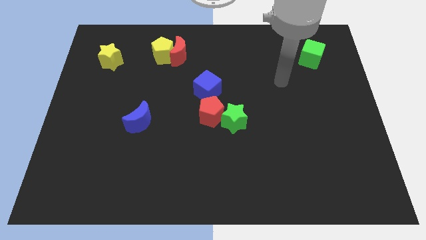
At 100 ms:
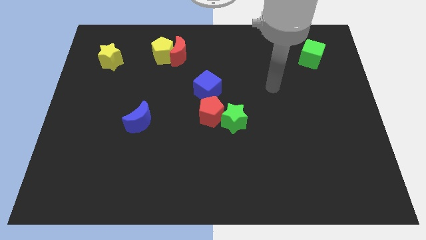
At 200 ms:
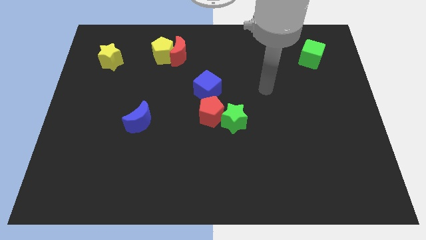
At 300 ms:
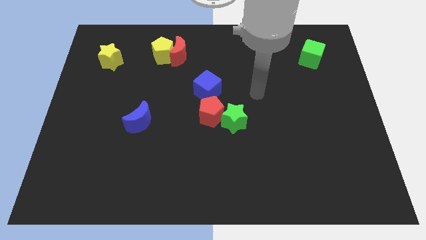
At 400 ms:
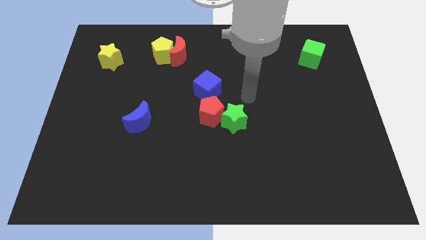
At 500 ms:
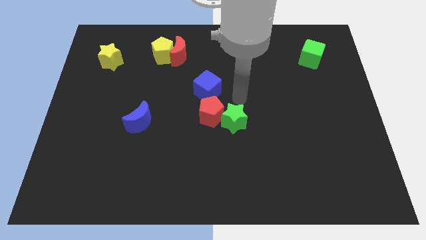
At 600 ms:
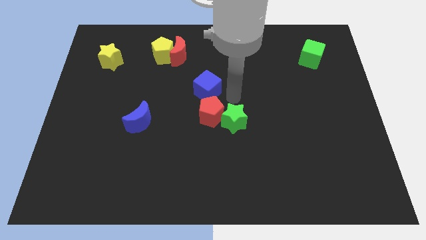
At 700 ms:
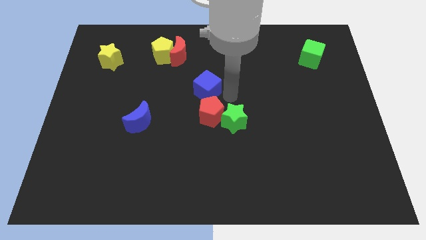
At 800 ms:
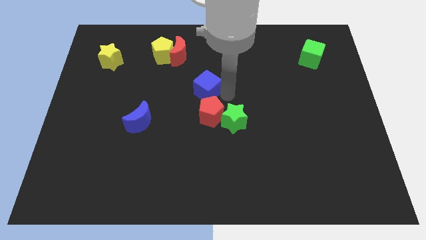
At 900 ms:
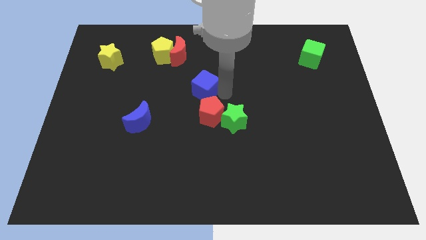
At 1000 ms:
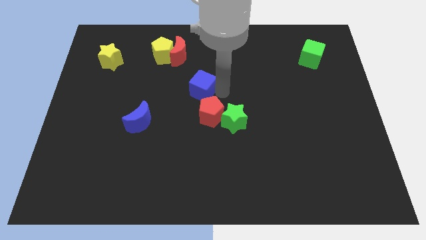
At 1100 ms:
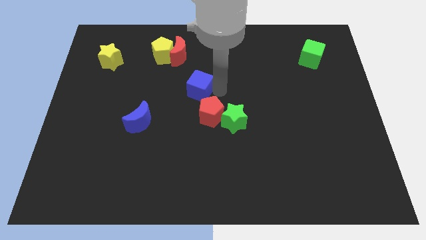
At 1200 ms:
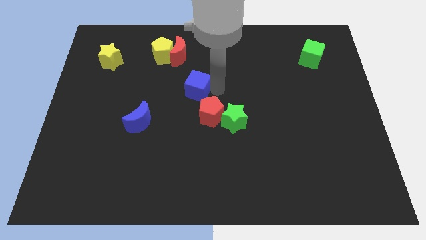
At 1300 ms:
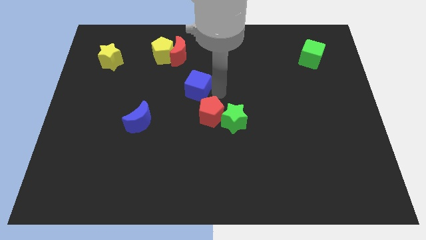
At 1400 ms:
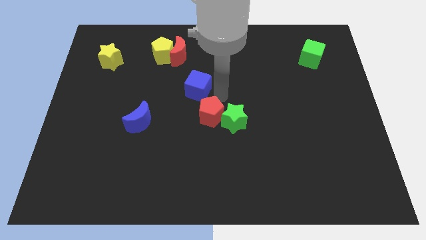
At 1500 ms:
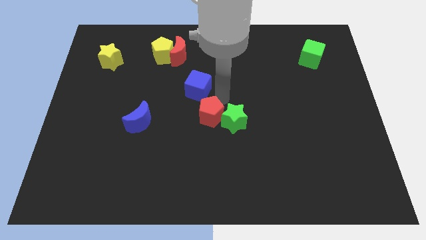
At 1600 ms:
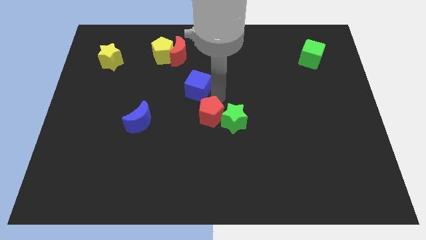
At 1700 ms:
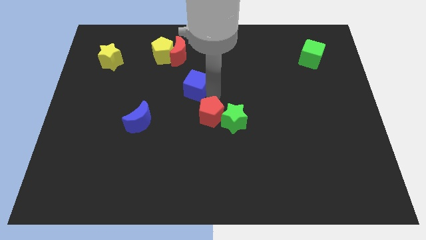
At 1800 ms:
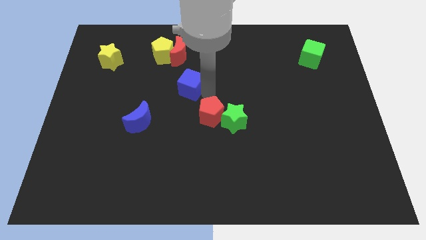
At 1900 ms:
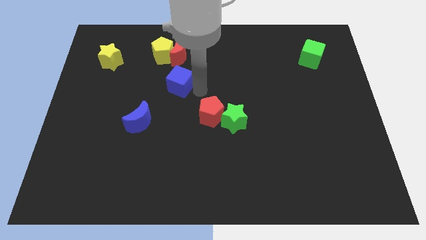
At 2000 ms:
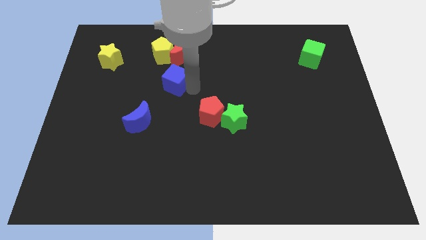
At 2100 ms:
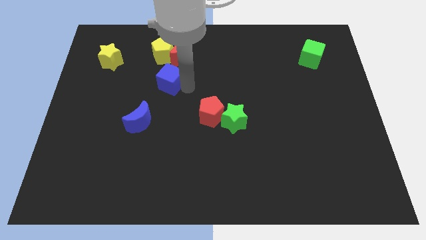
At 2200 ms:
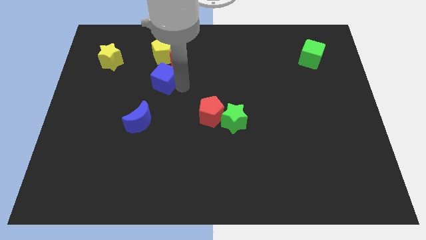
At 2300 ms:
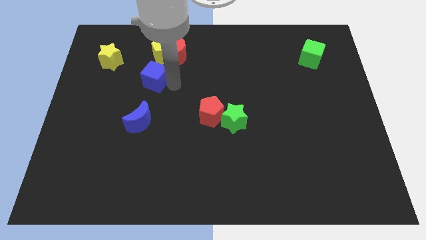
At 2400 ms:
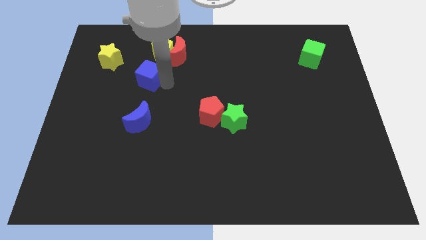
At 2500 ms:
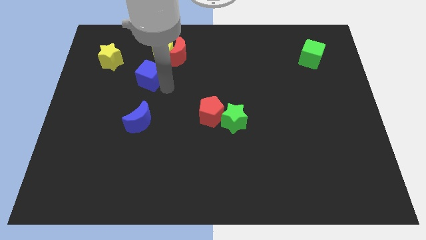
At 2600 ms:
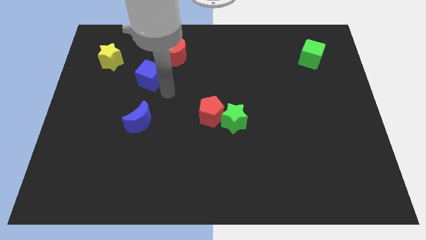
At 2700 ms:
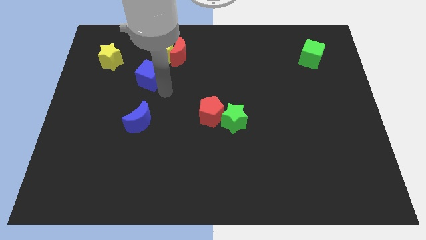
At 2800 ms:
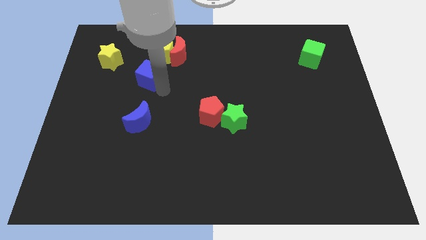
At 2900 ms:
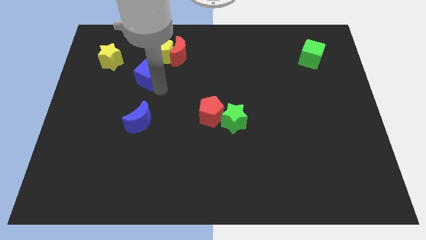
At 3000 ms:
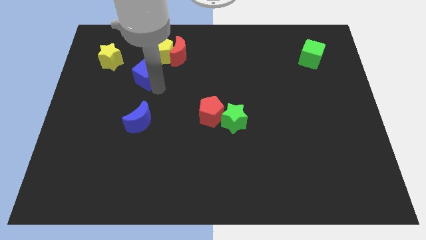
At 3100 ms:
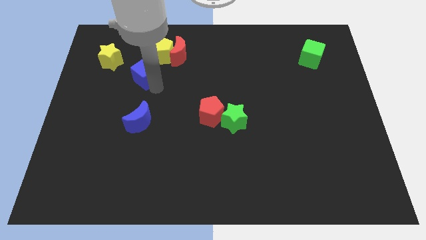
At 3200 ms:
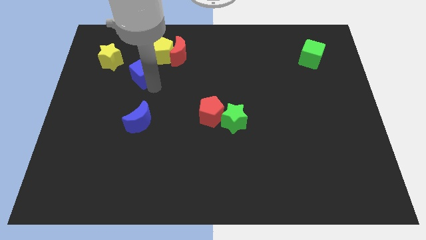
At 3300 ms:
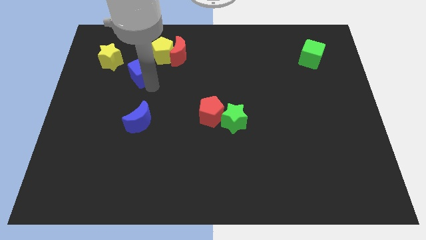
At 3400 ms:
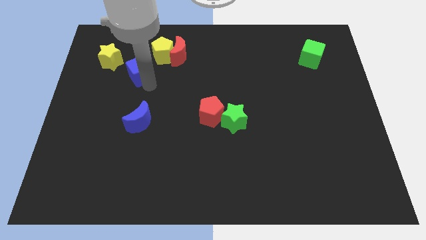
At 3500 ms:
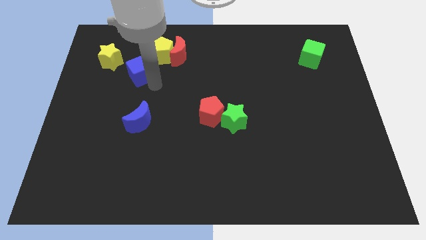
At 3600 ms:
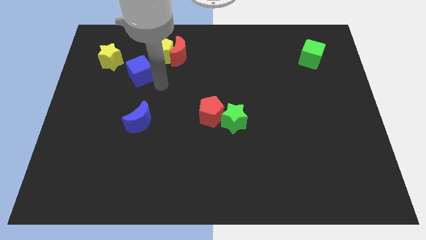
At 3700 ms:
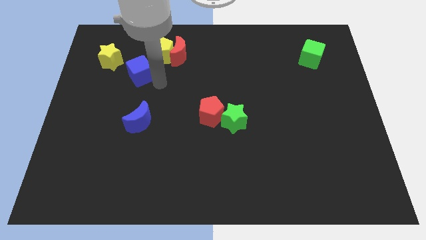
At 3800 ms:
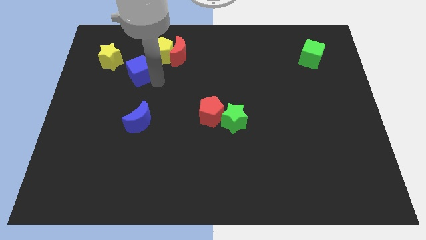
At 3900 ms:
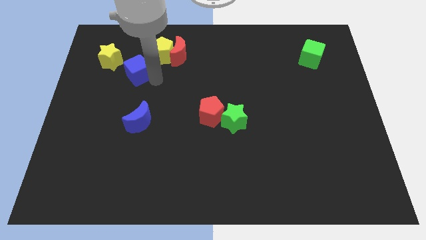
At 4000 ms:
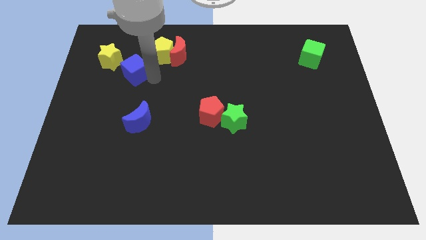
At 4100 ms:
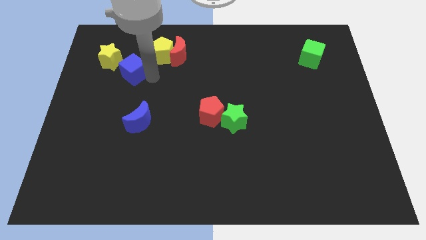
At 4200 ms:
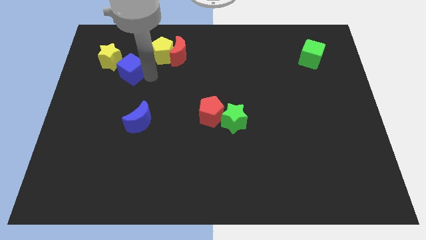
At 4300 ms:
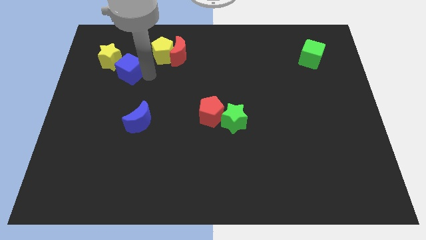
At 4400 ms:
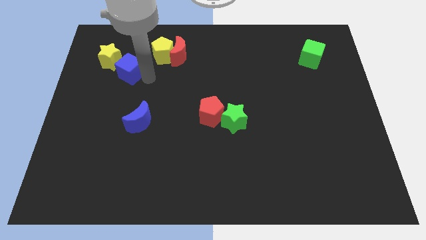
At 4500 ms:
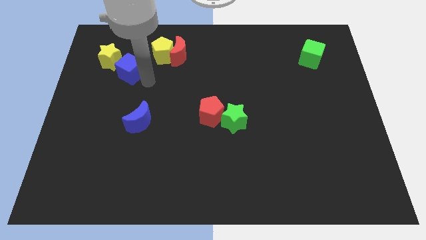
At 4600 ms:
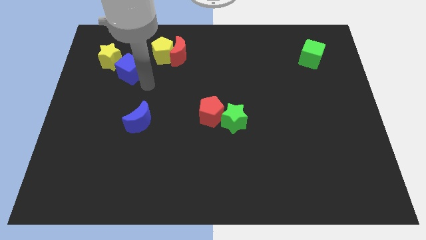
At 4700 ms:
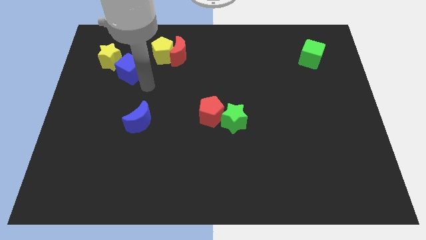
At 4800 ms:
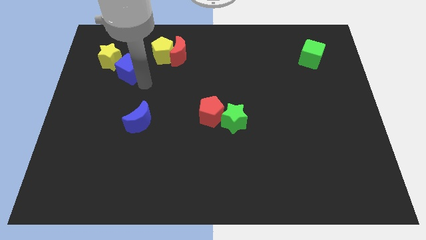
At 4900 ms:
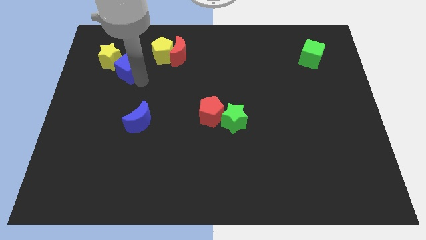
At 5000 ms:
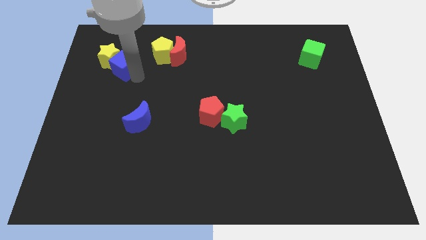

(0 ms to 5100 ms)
put the blue cube to the yellow star

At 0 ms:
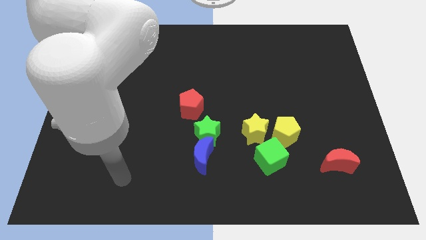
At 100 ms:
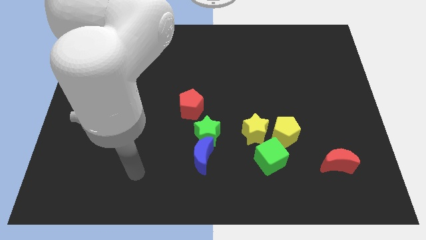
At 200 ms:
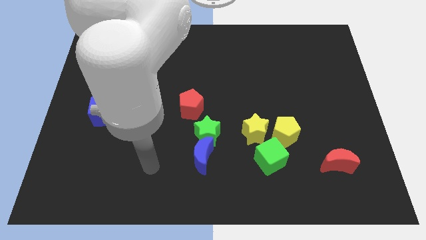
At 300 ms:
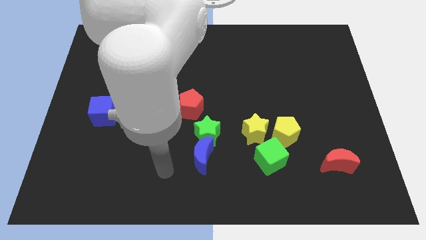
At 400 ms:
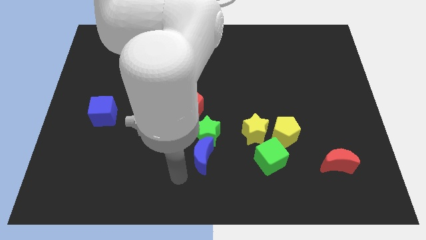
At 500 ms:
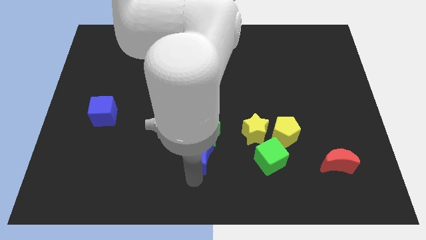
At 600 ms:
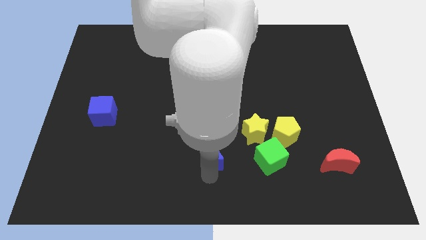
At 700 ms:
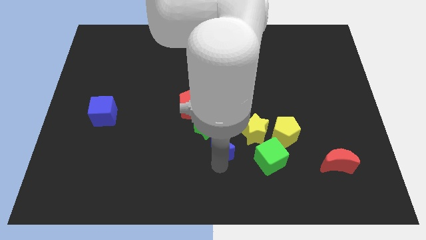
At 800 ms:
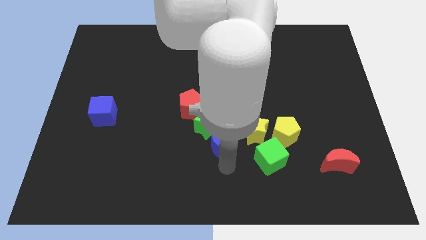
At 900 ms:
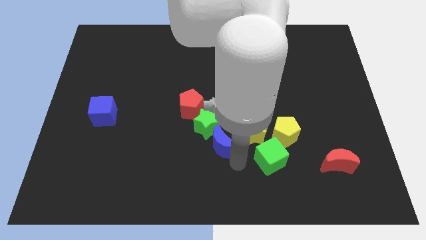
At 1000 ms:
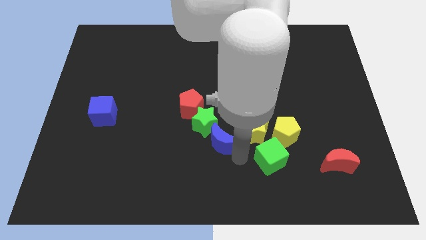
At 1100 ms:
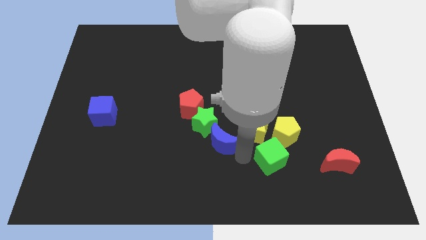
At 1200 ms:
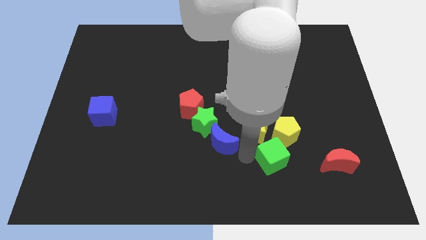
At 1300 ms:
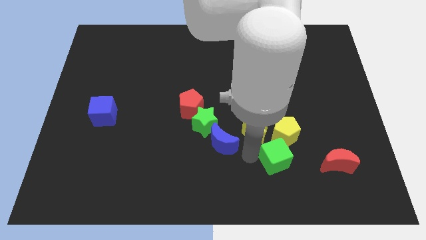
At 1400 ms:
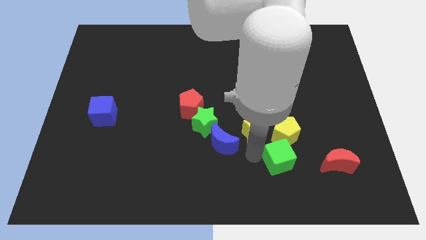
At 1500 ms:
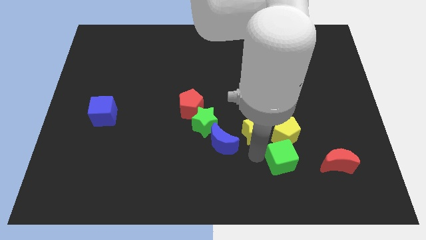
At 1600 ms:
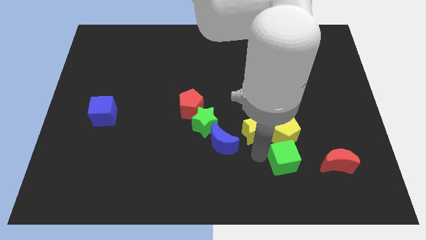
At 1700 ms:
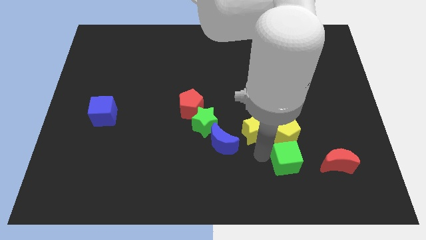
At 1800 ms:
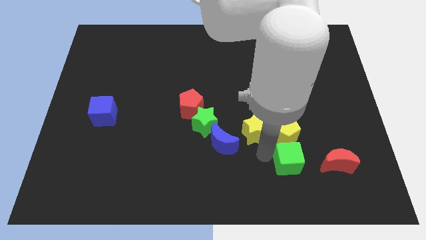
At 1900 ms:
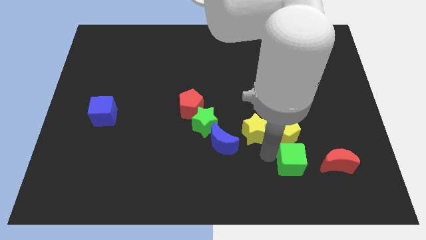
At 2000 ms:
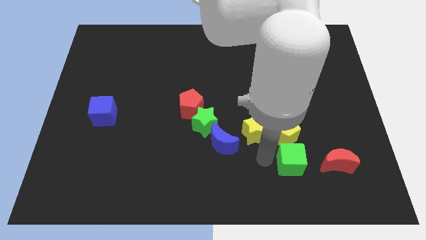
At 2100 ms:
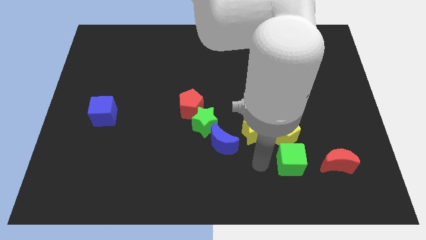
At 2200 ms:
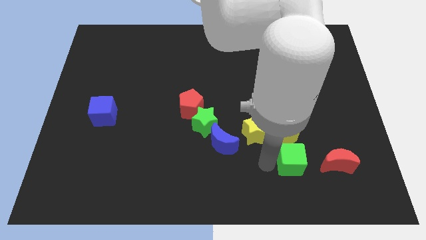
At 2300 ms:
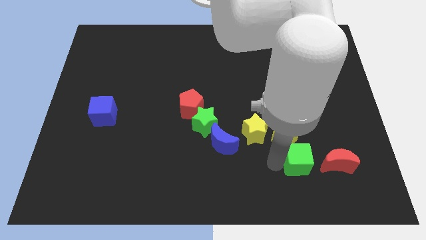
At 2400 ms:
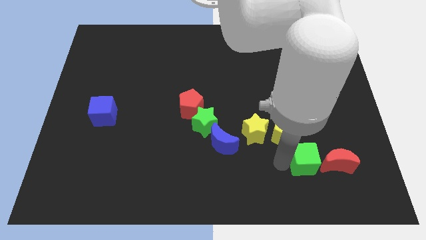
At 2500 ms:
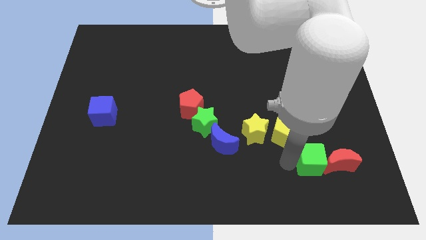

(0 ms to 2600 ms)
move the green cube close to the red moon

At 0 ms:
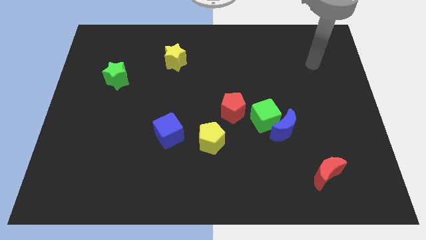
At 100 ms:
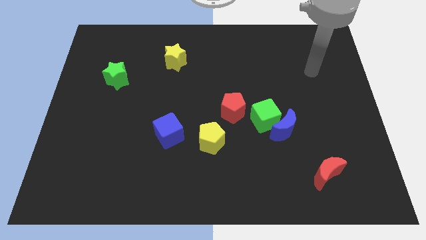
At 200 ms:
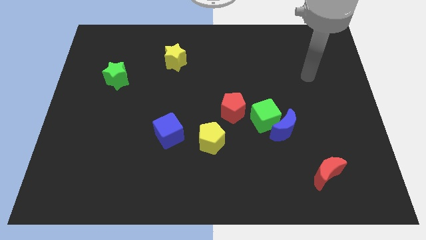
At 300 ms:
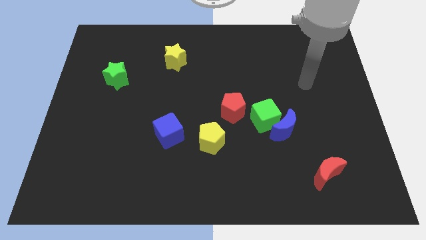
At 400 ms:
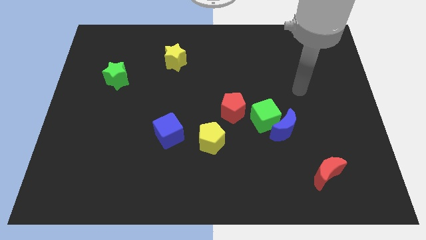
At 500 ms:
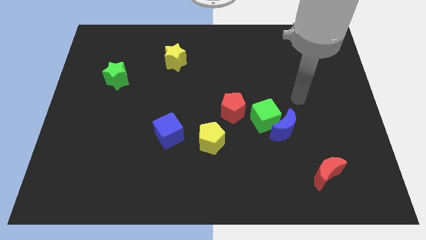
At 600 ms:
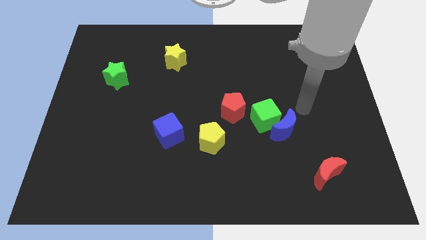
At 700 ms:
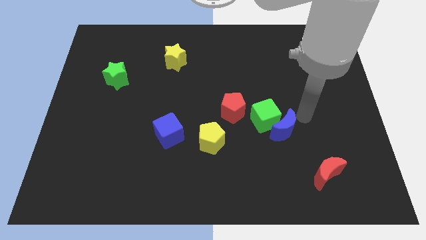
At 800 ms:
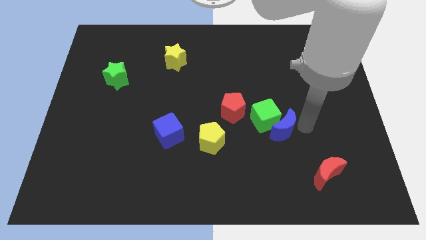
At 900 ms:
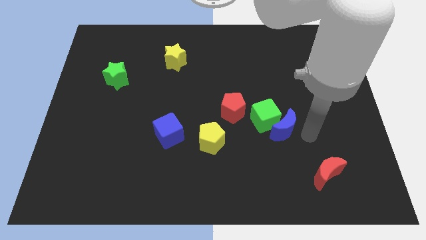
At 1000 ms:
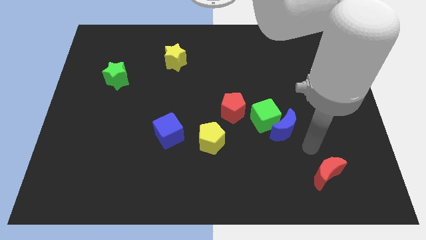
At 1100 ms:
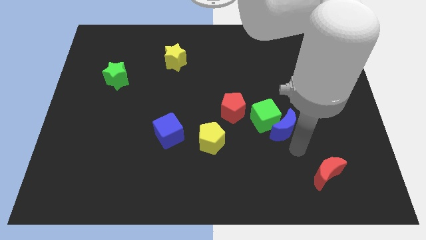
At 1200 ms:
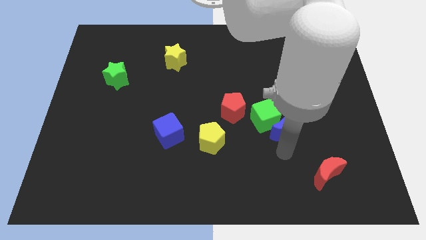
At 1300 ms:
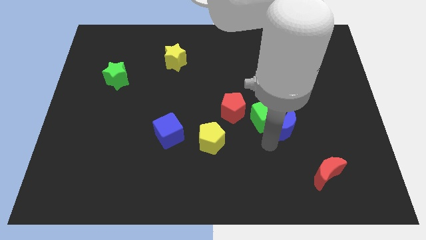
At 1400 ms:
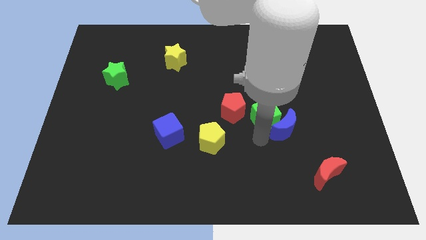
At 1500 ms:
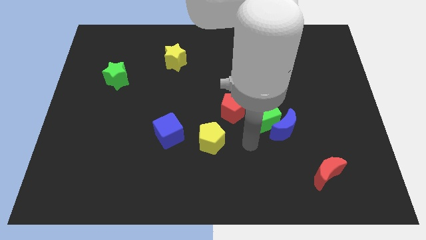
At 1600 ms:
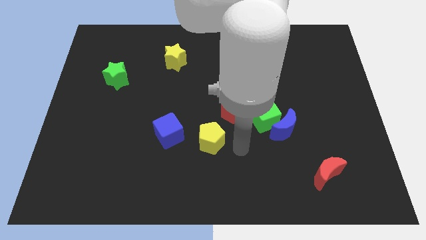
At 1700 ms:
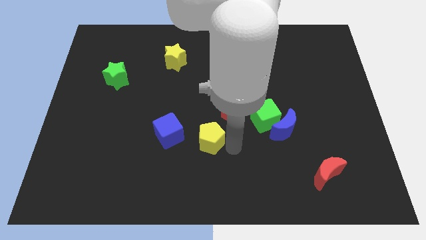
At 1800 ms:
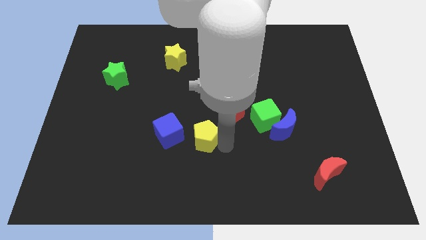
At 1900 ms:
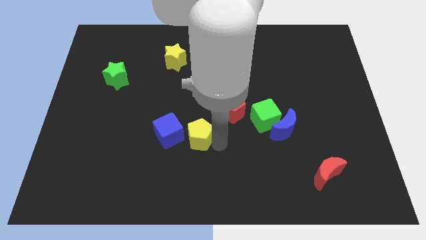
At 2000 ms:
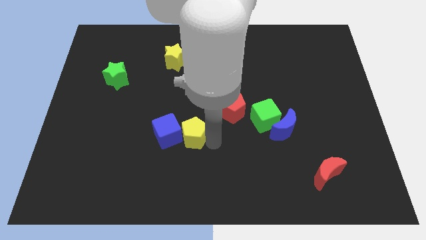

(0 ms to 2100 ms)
put the yellow pentagon towards the blue cube
